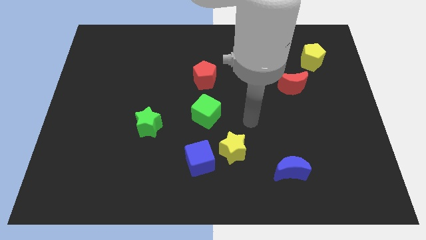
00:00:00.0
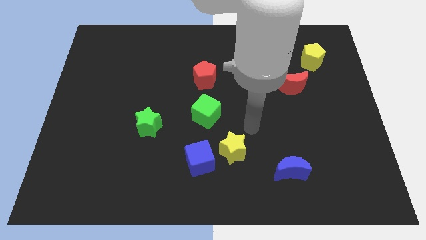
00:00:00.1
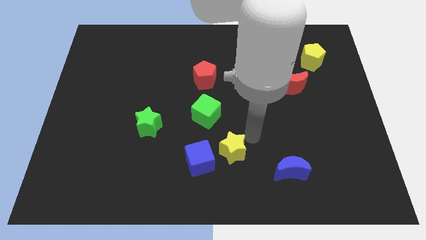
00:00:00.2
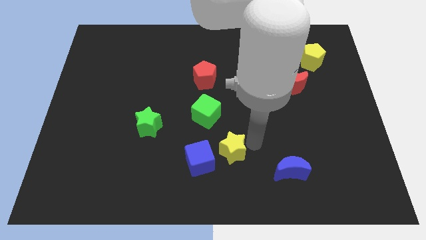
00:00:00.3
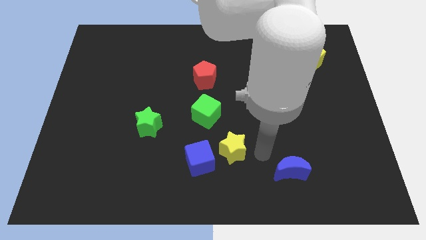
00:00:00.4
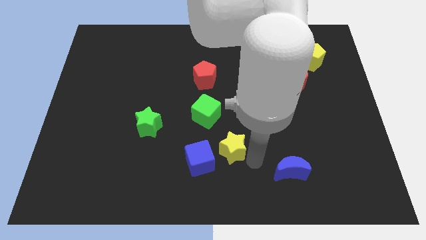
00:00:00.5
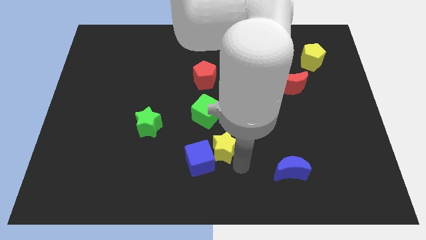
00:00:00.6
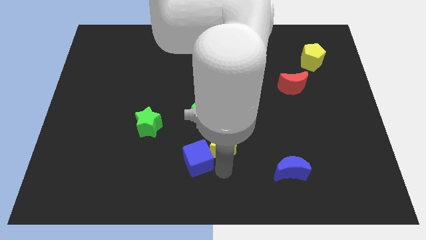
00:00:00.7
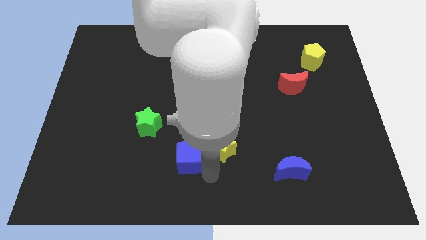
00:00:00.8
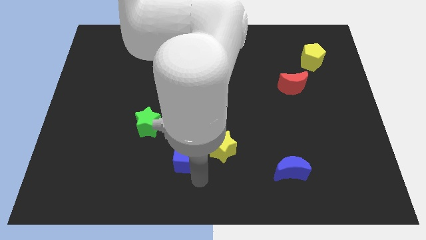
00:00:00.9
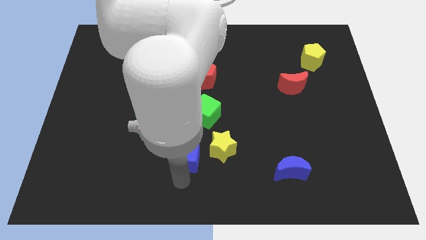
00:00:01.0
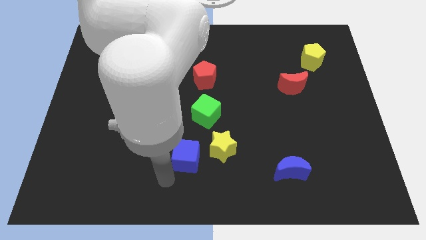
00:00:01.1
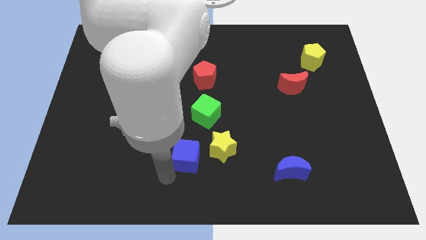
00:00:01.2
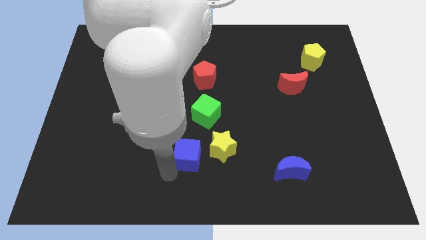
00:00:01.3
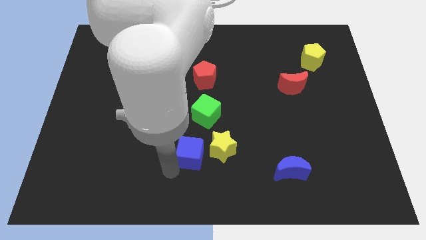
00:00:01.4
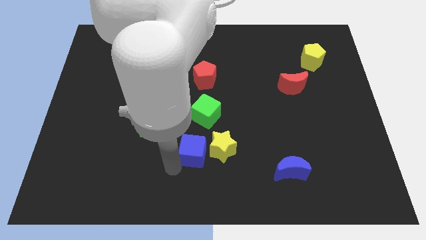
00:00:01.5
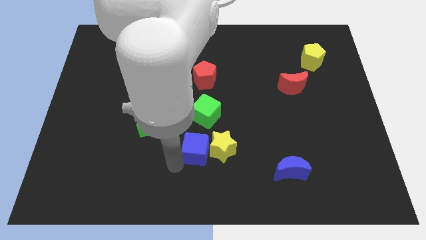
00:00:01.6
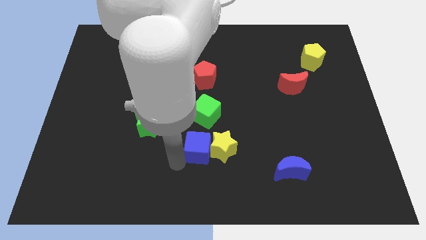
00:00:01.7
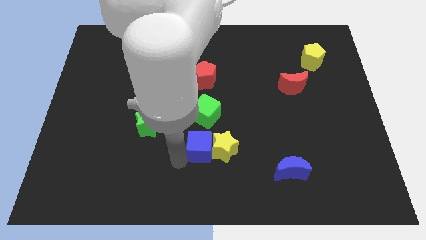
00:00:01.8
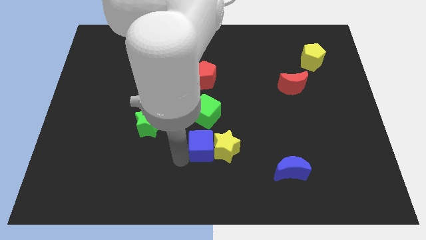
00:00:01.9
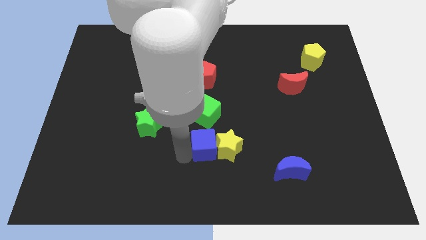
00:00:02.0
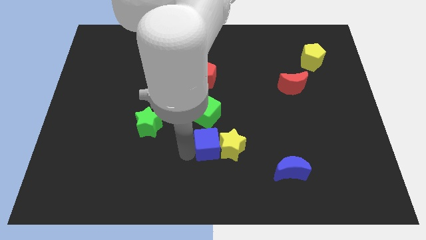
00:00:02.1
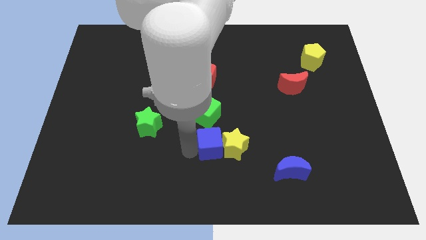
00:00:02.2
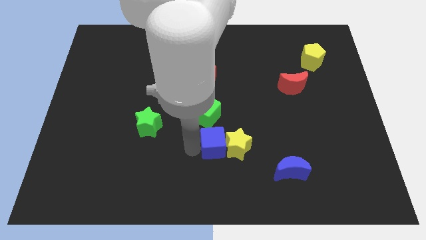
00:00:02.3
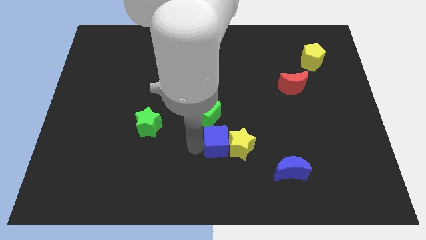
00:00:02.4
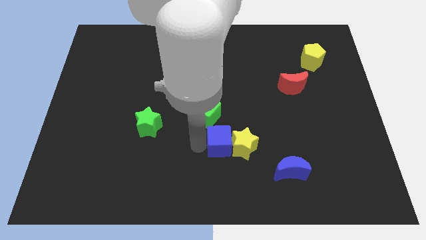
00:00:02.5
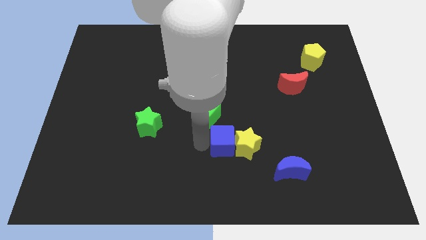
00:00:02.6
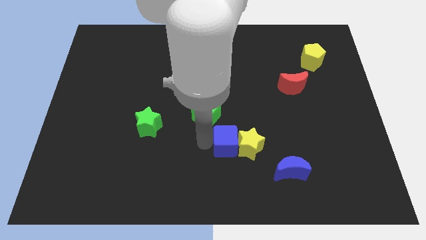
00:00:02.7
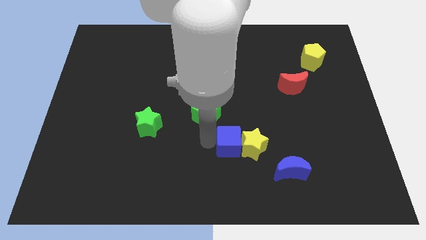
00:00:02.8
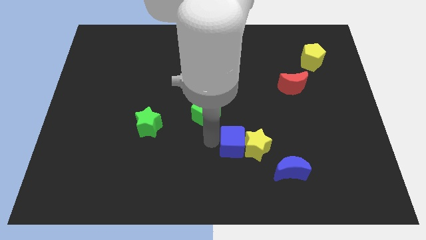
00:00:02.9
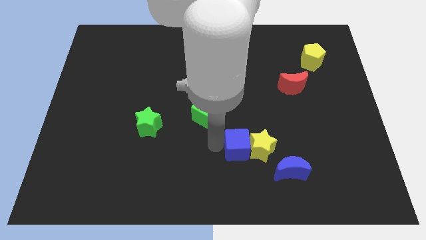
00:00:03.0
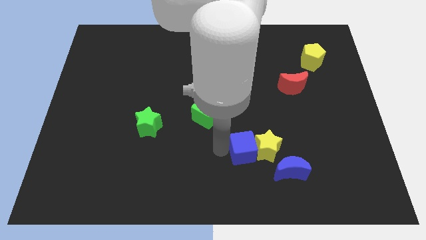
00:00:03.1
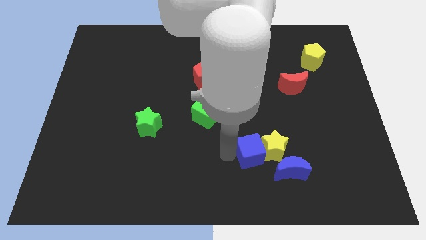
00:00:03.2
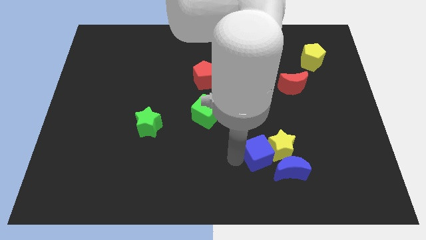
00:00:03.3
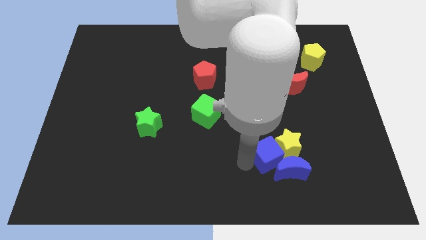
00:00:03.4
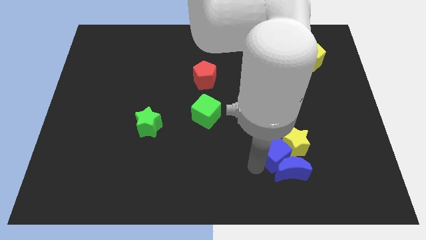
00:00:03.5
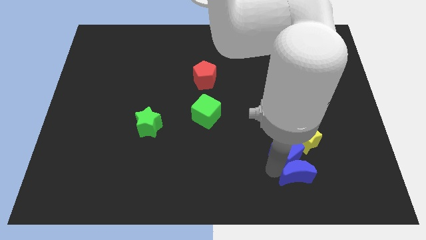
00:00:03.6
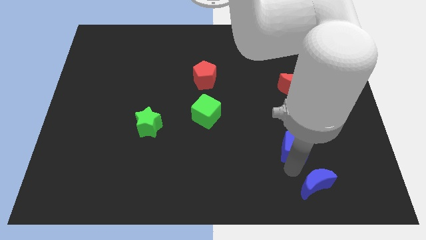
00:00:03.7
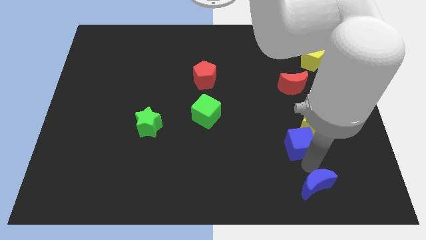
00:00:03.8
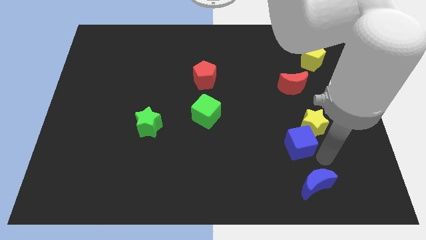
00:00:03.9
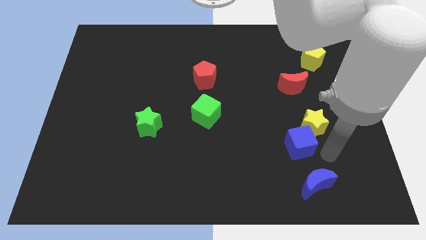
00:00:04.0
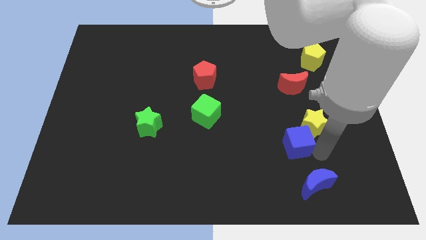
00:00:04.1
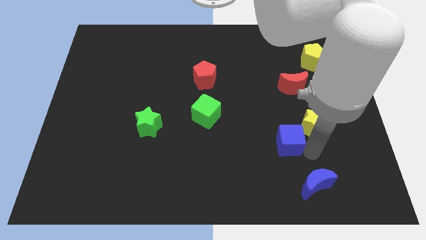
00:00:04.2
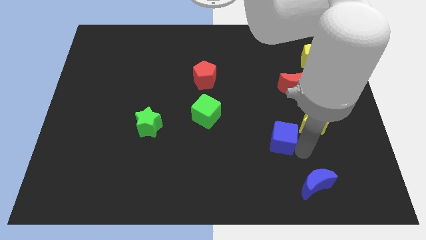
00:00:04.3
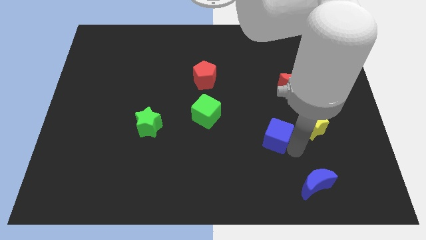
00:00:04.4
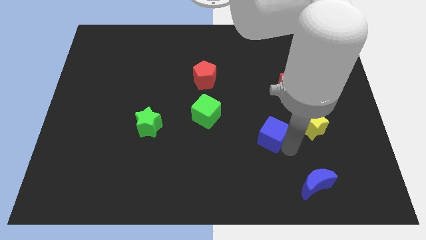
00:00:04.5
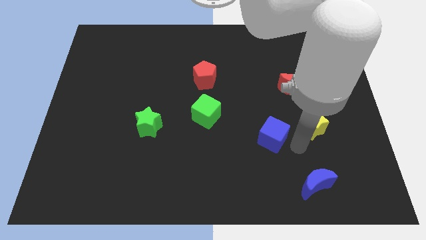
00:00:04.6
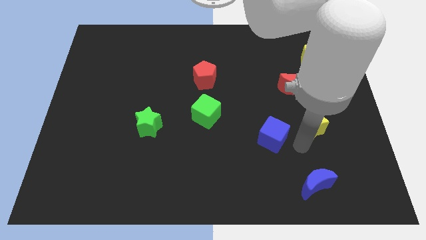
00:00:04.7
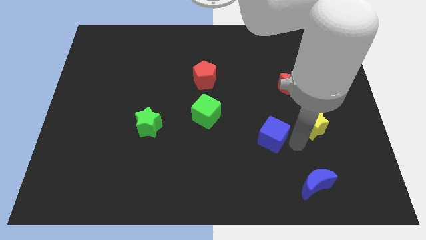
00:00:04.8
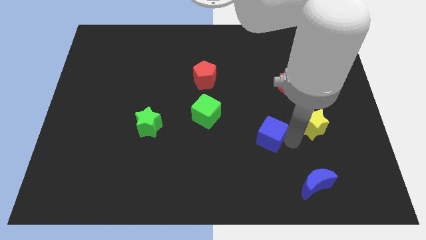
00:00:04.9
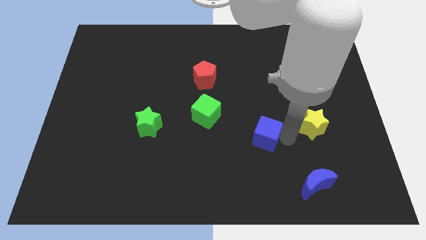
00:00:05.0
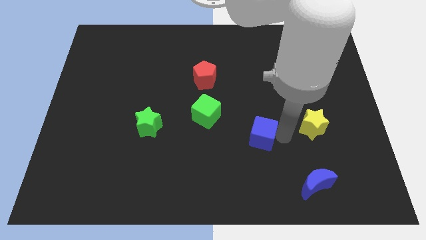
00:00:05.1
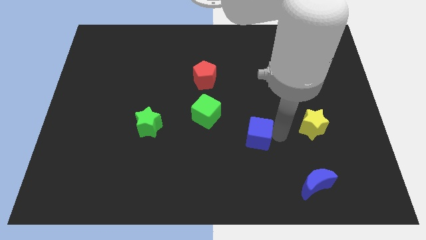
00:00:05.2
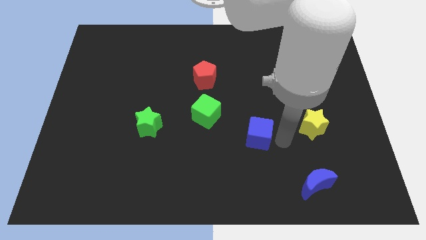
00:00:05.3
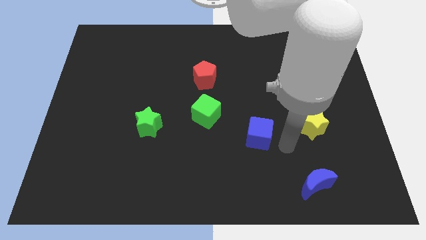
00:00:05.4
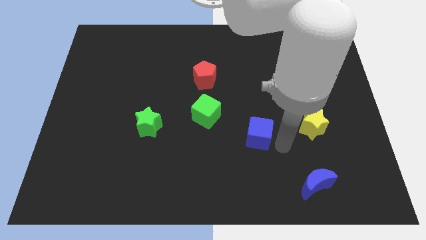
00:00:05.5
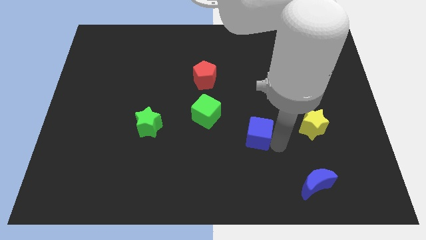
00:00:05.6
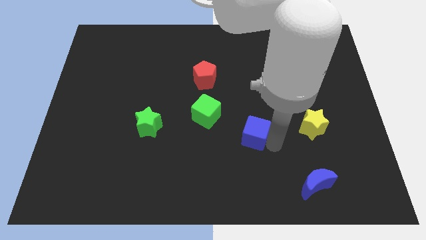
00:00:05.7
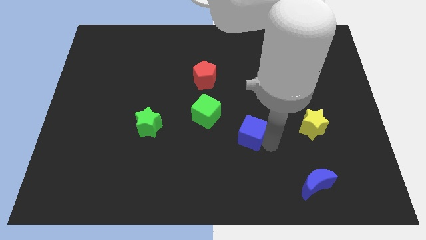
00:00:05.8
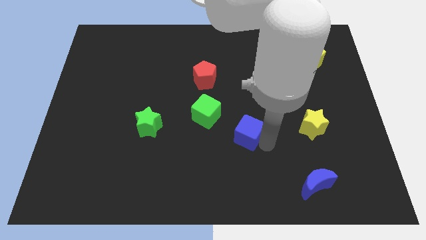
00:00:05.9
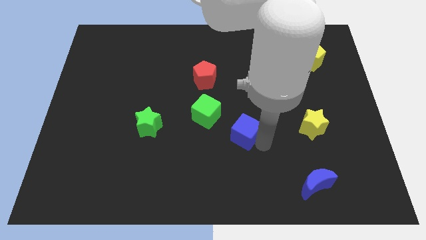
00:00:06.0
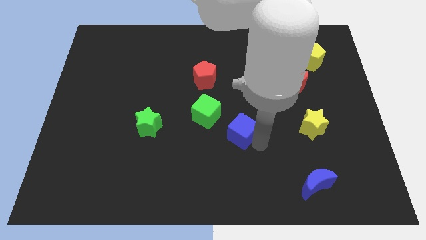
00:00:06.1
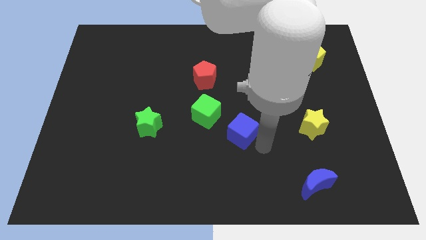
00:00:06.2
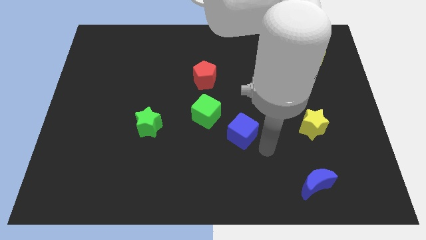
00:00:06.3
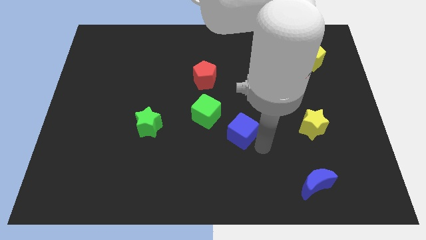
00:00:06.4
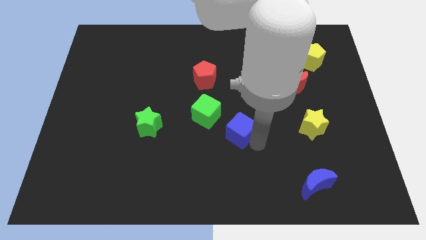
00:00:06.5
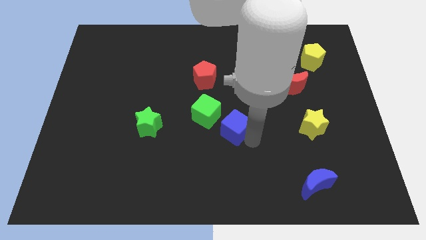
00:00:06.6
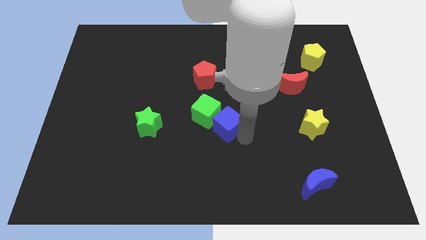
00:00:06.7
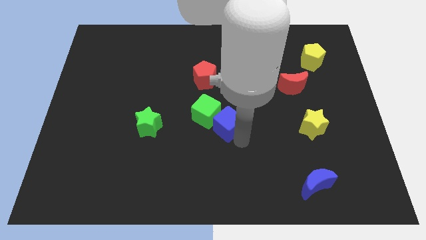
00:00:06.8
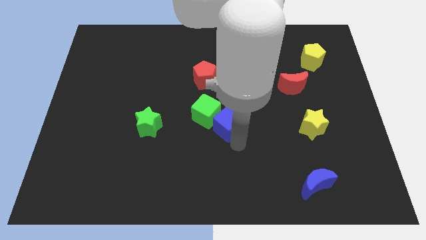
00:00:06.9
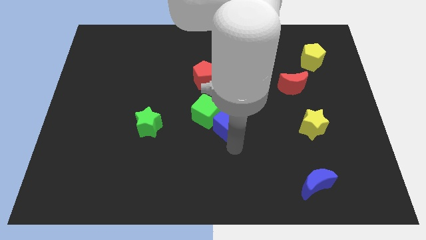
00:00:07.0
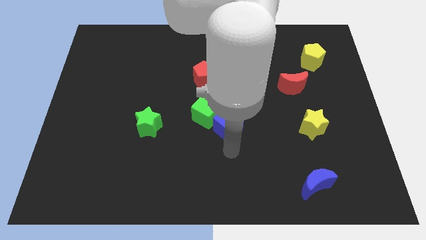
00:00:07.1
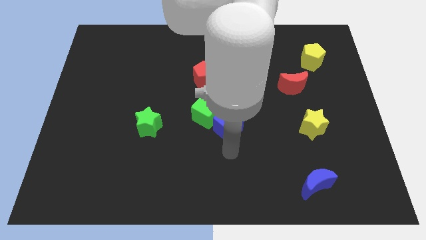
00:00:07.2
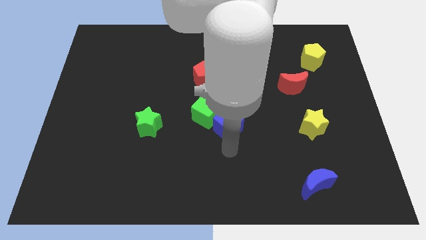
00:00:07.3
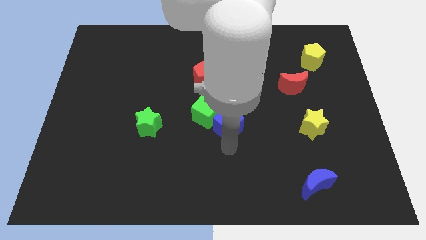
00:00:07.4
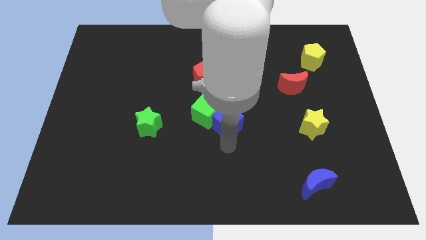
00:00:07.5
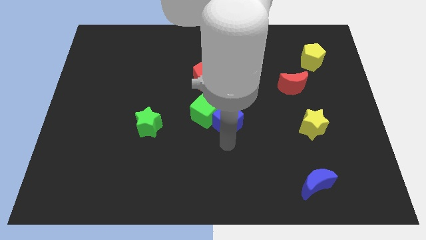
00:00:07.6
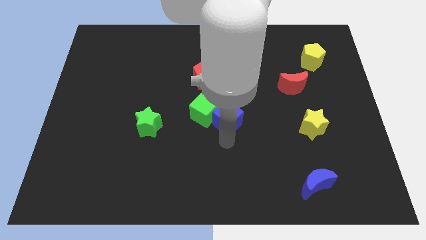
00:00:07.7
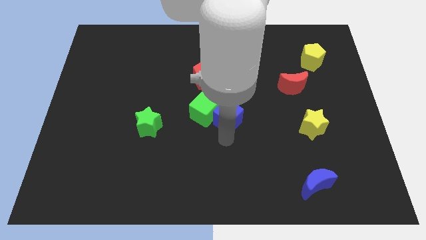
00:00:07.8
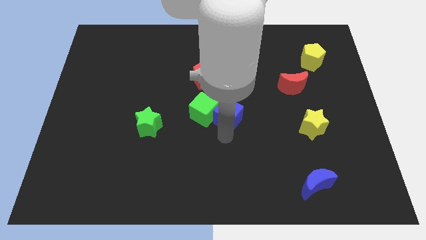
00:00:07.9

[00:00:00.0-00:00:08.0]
slide the blue cube to the top right of the green cube
